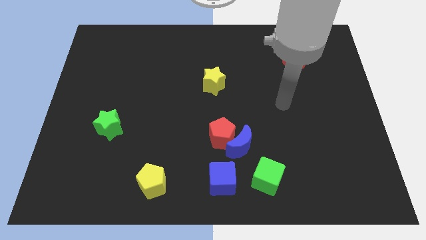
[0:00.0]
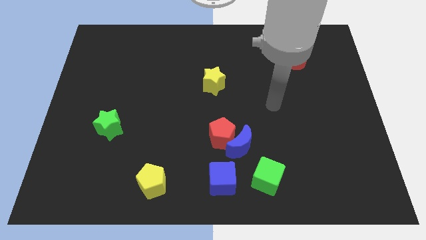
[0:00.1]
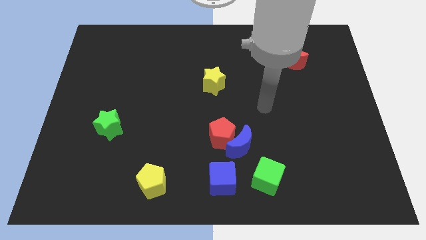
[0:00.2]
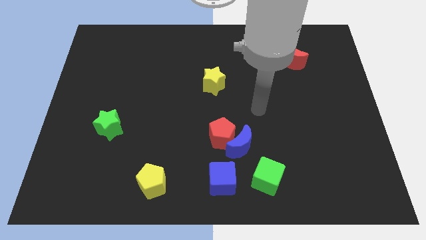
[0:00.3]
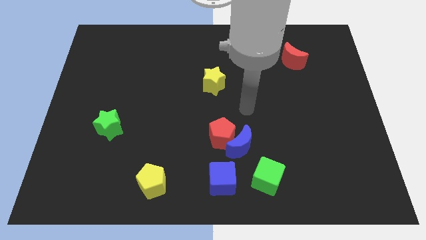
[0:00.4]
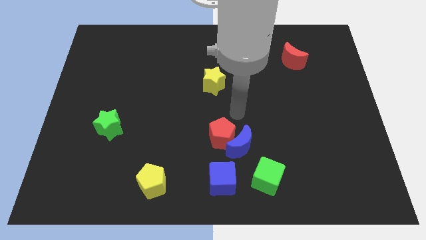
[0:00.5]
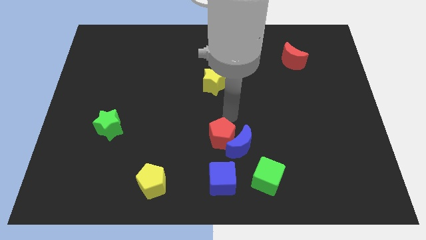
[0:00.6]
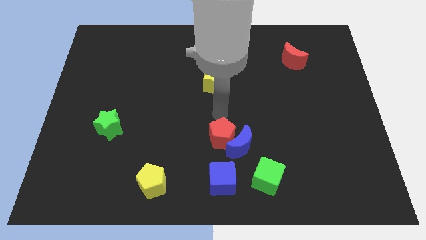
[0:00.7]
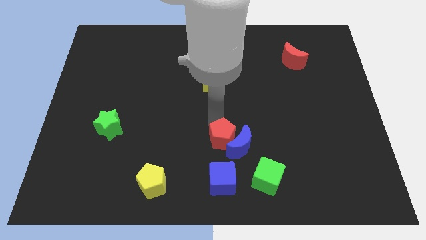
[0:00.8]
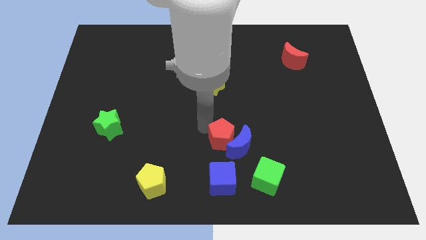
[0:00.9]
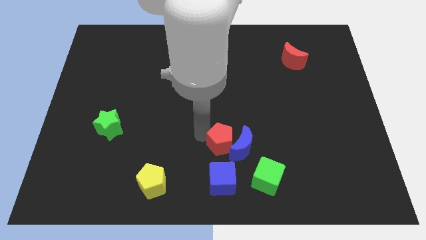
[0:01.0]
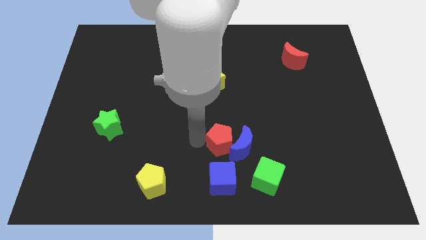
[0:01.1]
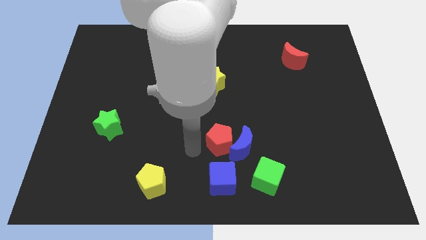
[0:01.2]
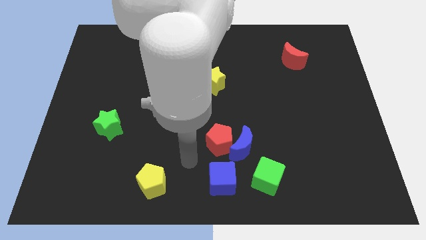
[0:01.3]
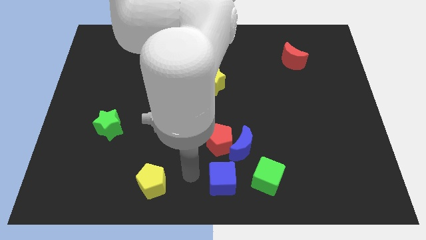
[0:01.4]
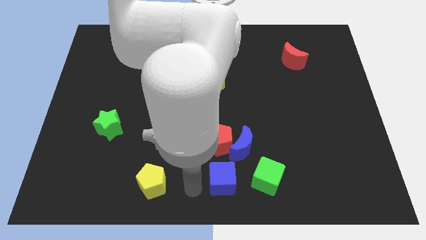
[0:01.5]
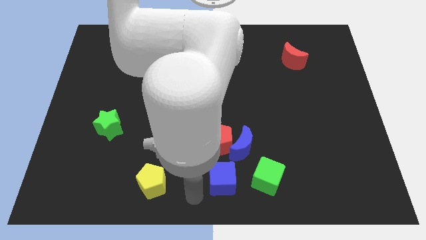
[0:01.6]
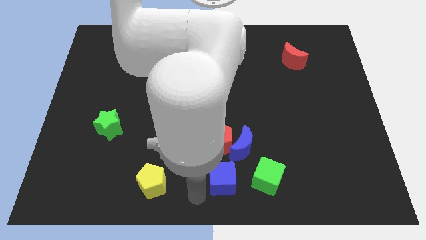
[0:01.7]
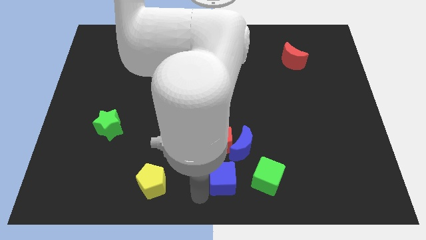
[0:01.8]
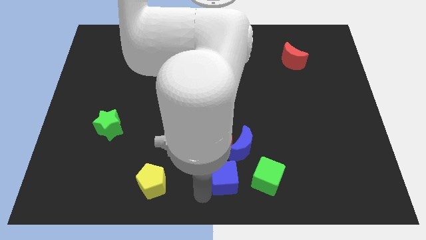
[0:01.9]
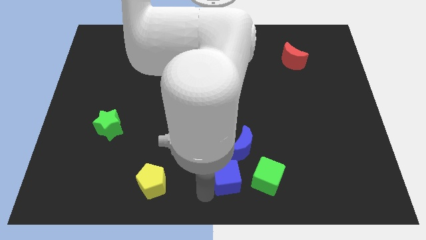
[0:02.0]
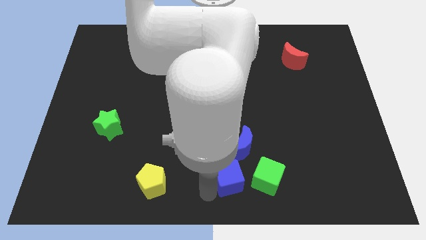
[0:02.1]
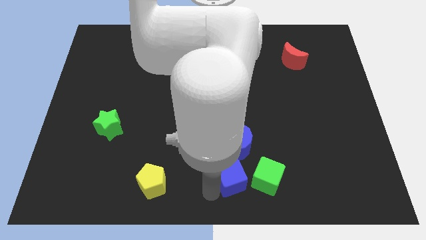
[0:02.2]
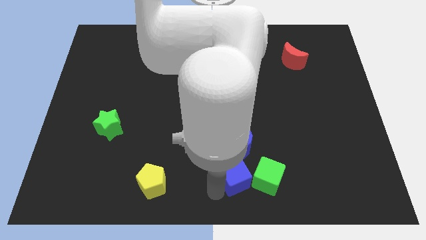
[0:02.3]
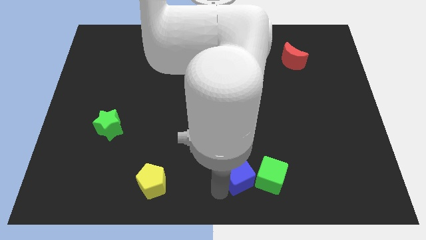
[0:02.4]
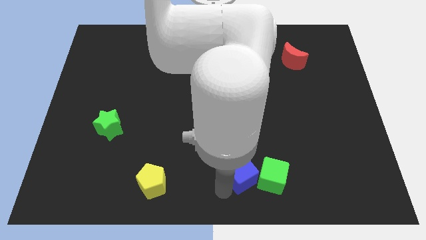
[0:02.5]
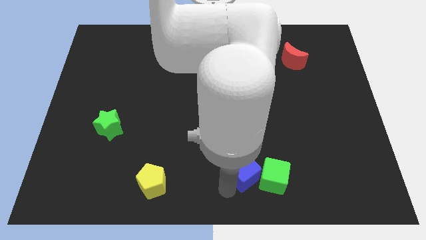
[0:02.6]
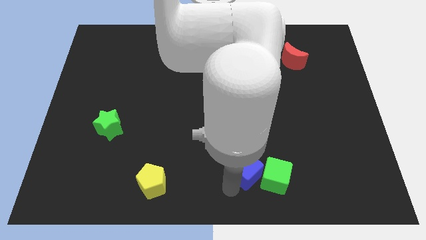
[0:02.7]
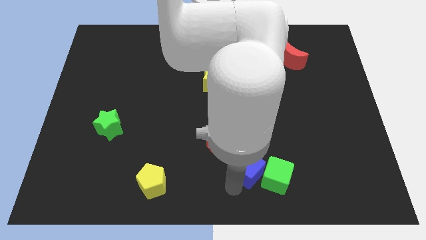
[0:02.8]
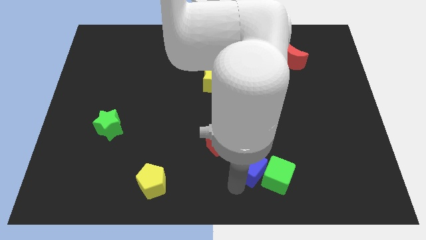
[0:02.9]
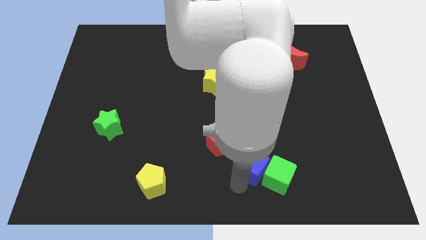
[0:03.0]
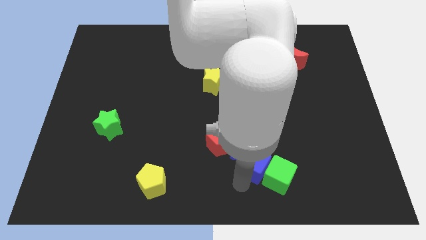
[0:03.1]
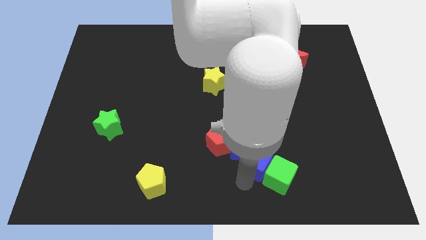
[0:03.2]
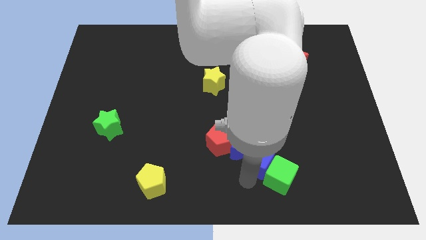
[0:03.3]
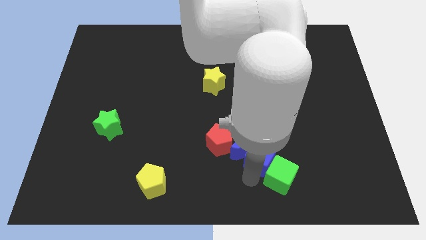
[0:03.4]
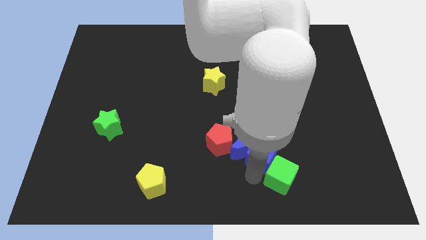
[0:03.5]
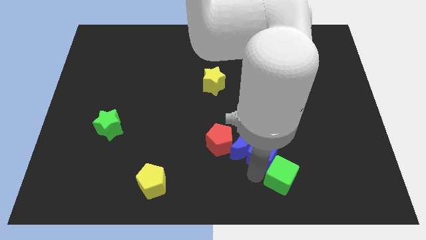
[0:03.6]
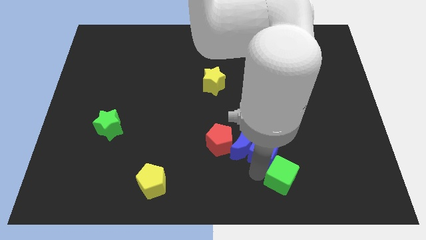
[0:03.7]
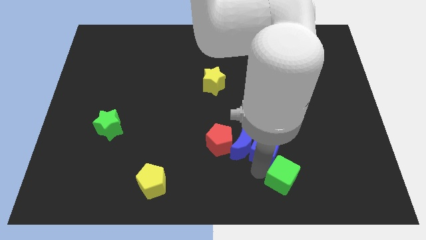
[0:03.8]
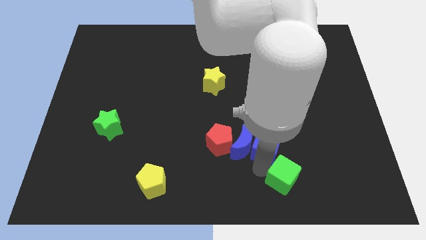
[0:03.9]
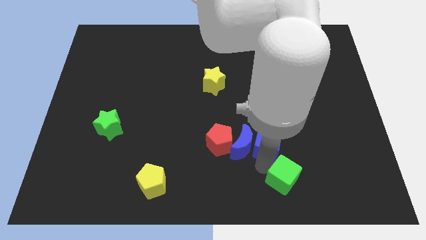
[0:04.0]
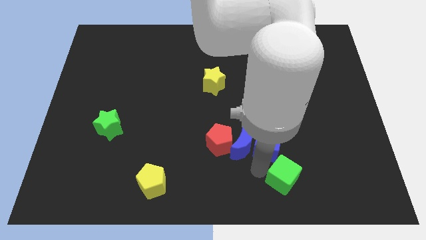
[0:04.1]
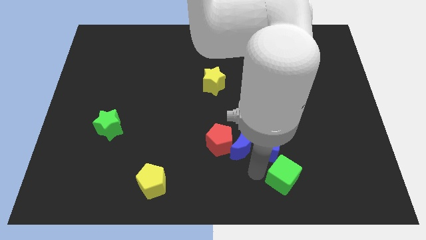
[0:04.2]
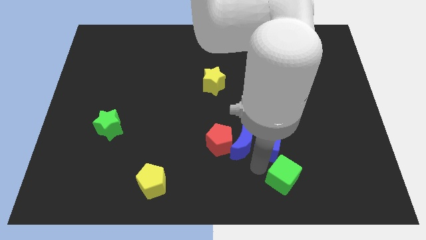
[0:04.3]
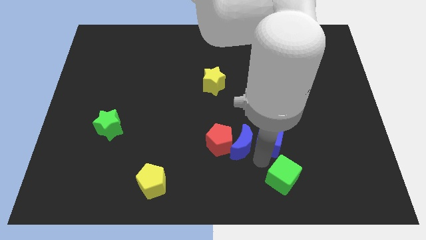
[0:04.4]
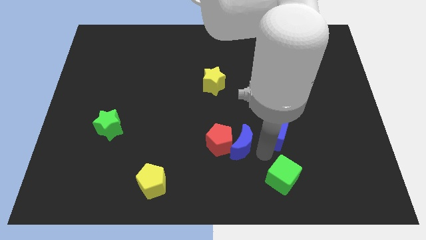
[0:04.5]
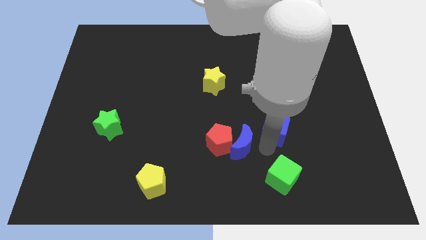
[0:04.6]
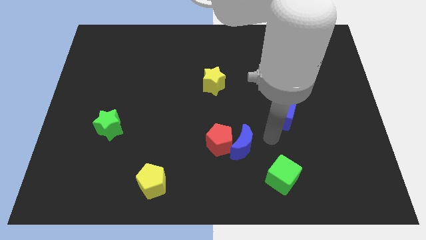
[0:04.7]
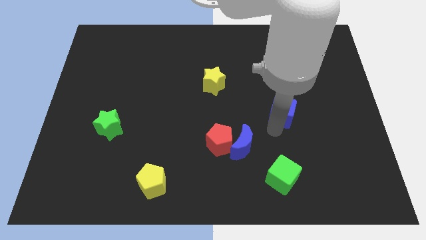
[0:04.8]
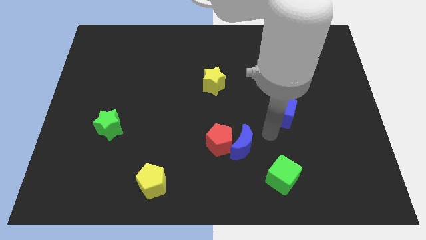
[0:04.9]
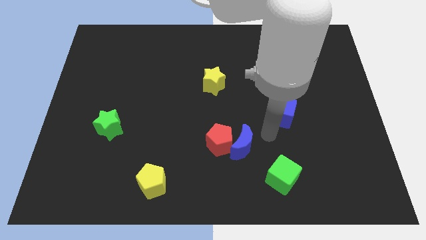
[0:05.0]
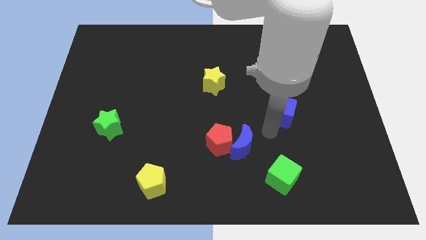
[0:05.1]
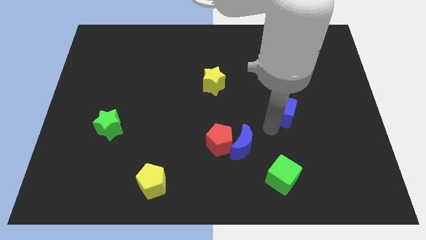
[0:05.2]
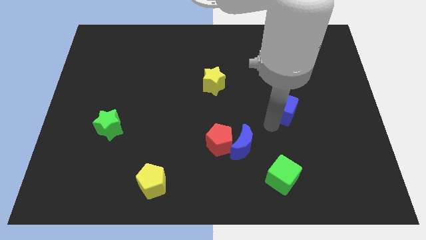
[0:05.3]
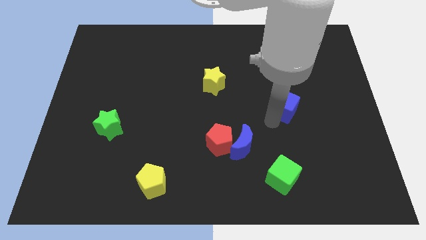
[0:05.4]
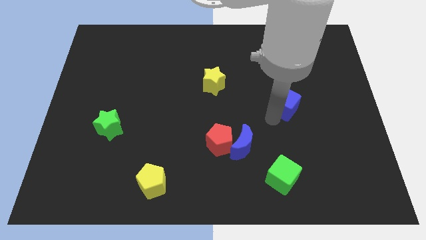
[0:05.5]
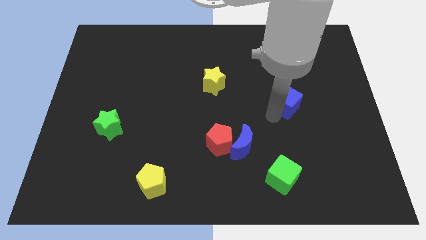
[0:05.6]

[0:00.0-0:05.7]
move the blue cube to the bottom of the red moon

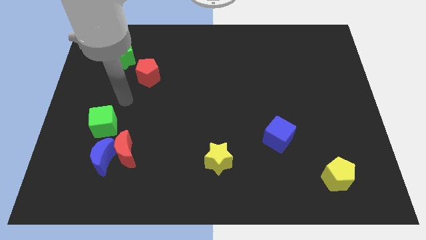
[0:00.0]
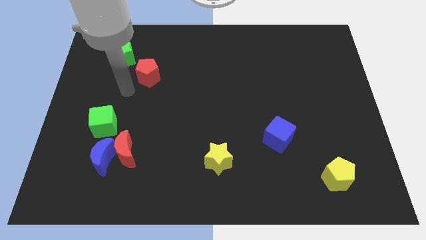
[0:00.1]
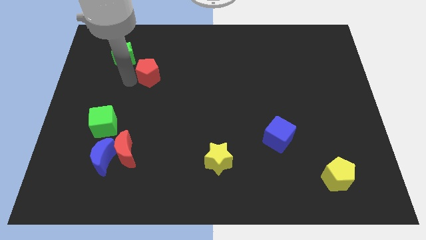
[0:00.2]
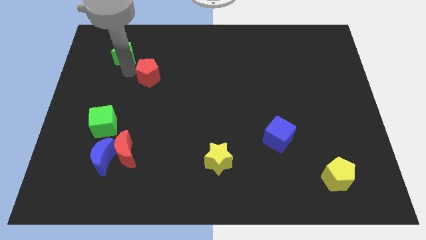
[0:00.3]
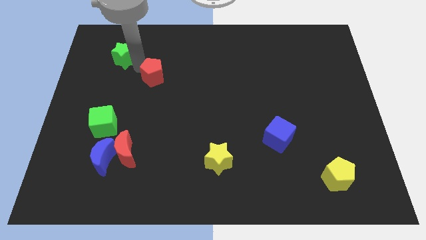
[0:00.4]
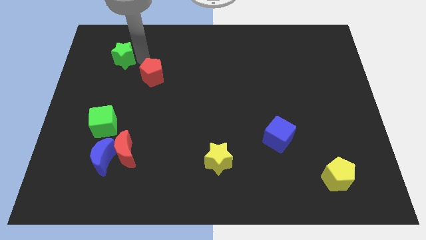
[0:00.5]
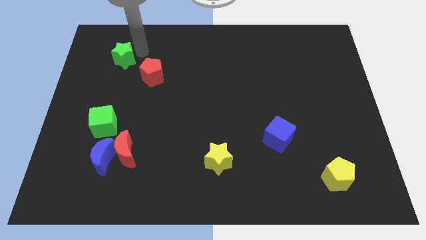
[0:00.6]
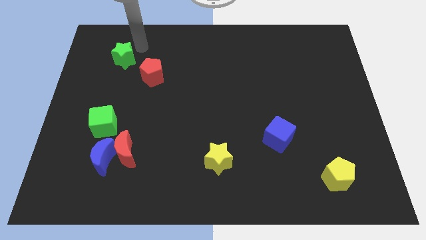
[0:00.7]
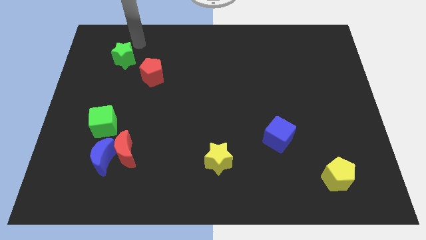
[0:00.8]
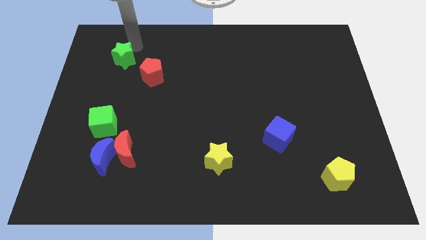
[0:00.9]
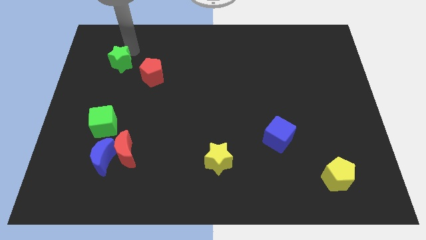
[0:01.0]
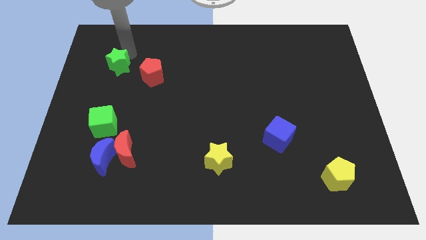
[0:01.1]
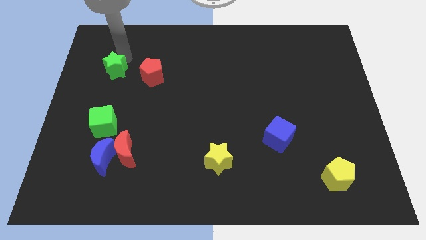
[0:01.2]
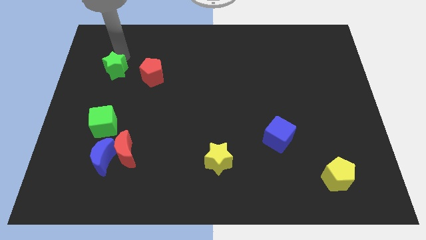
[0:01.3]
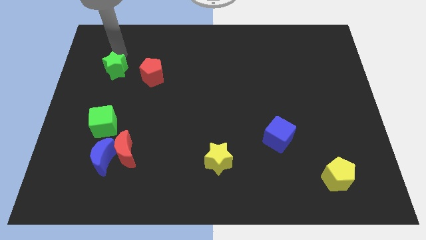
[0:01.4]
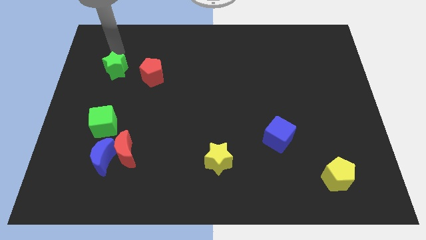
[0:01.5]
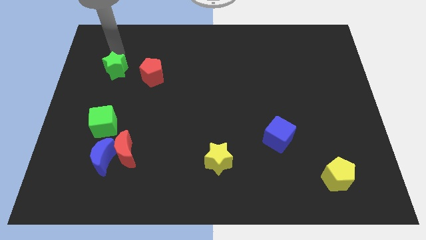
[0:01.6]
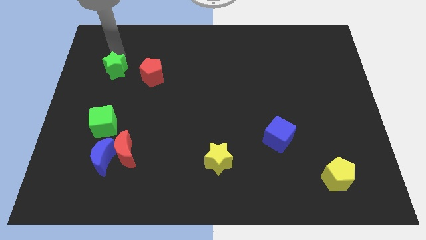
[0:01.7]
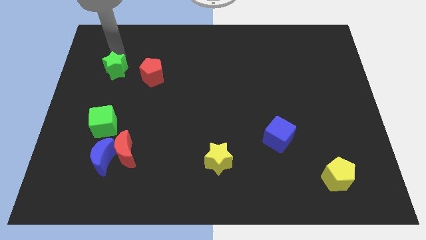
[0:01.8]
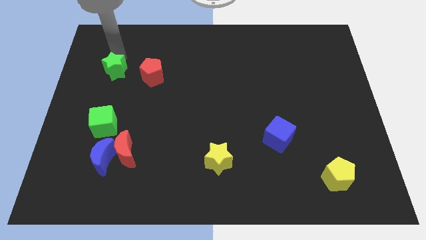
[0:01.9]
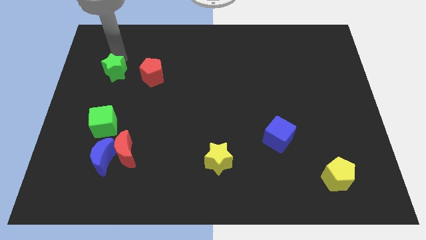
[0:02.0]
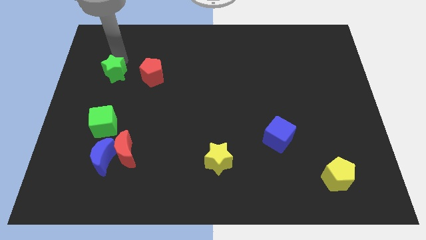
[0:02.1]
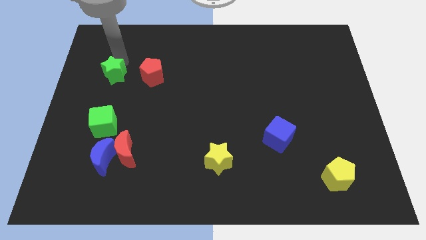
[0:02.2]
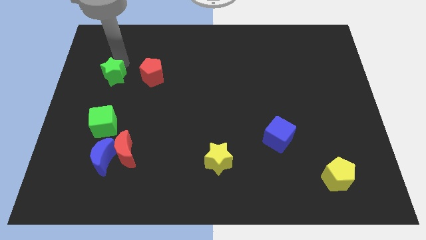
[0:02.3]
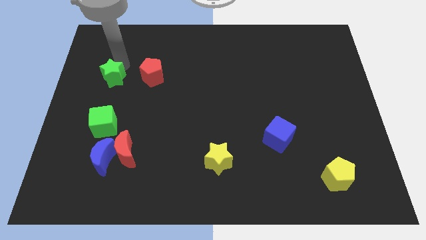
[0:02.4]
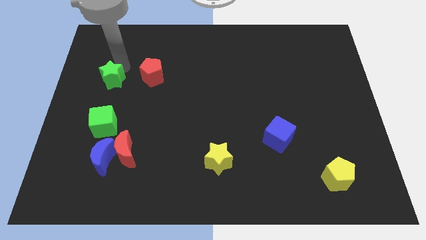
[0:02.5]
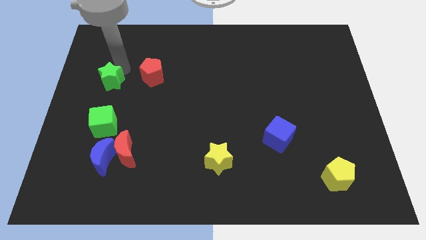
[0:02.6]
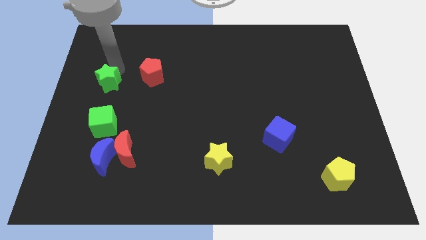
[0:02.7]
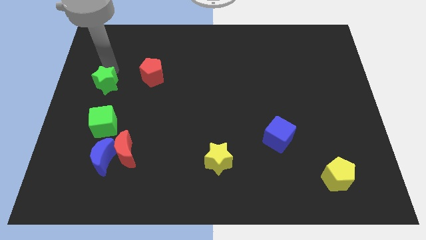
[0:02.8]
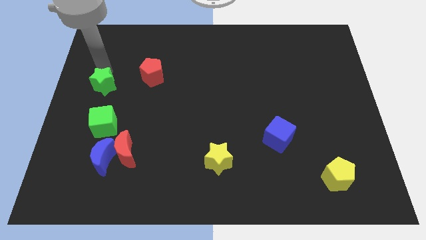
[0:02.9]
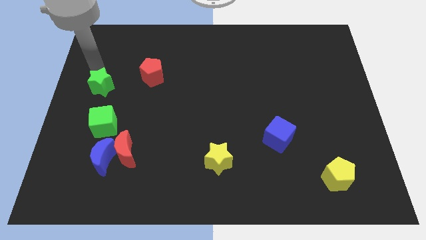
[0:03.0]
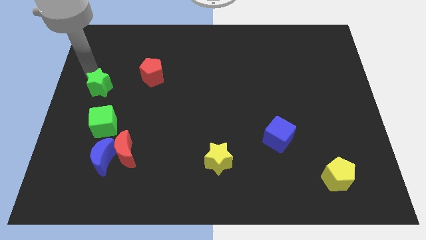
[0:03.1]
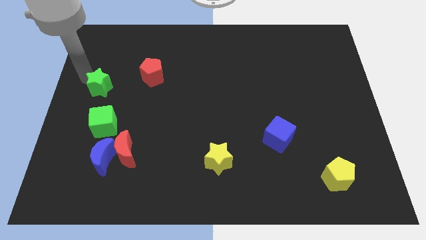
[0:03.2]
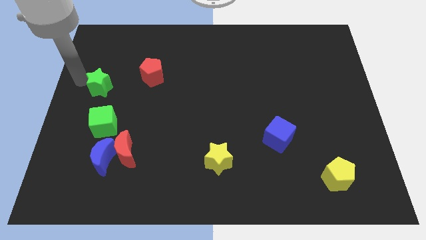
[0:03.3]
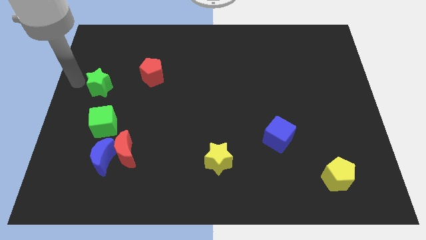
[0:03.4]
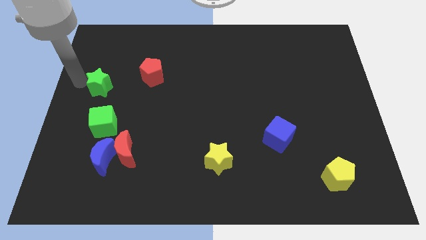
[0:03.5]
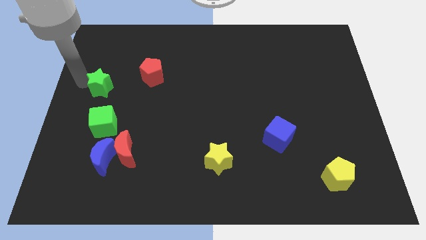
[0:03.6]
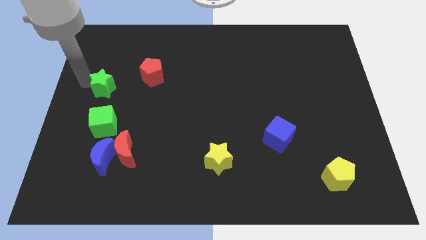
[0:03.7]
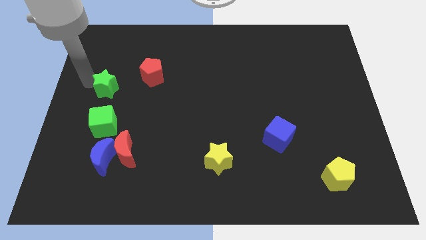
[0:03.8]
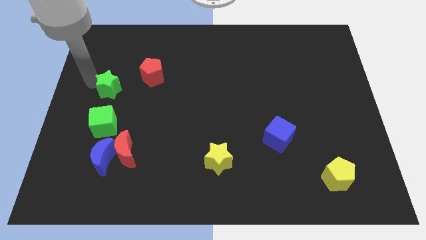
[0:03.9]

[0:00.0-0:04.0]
move the green star to the bottom left side of the red pentagon
